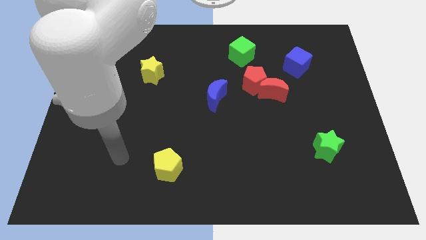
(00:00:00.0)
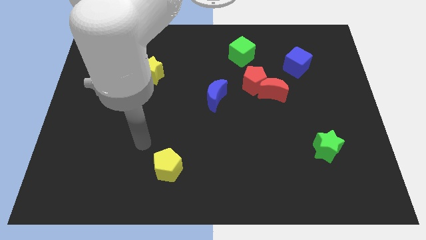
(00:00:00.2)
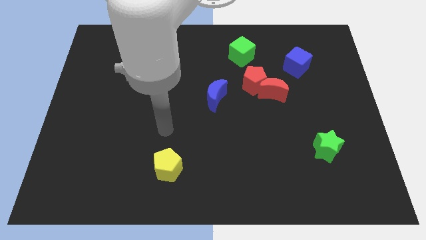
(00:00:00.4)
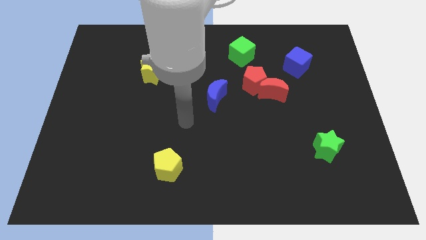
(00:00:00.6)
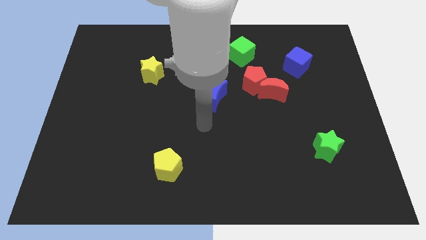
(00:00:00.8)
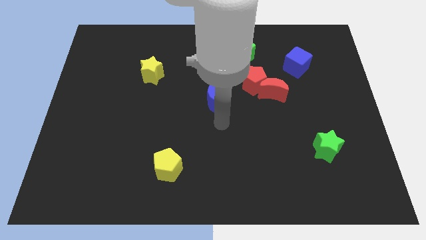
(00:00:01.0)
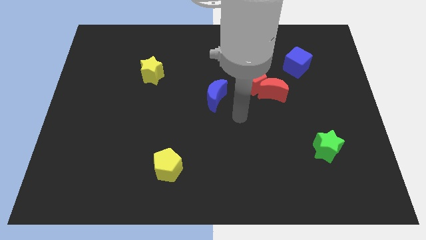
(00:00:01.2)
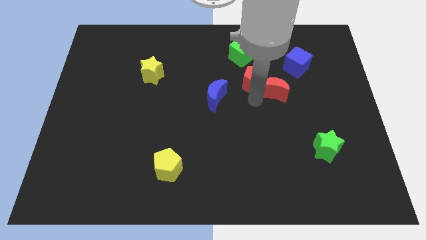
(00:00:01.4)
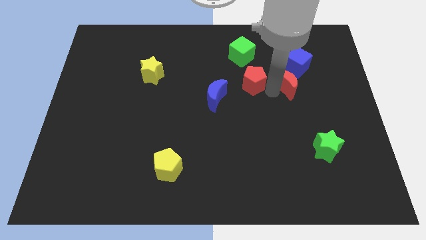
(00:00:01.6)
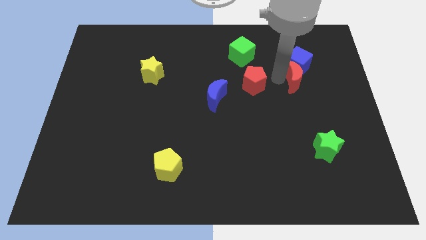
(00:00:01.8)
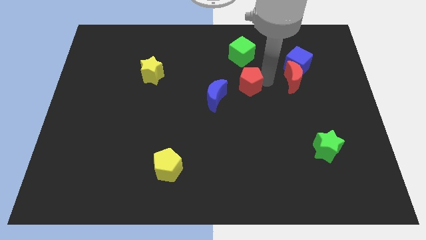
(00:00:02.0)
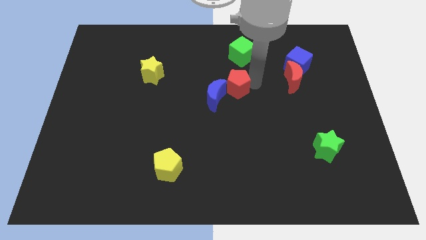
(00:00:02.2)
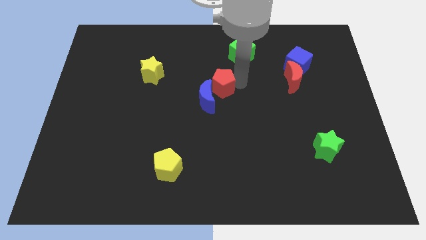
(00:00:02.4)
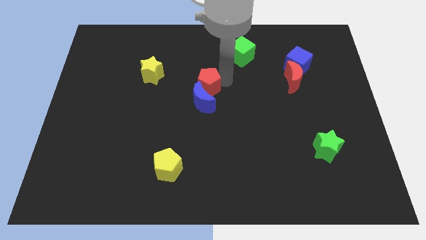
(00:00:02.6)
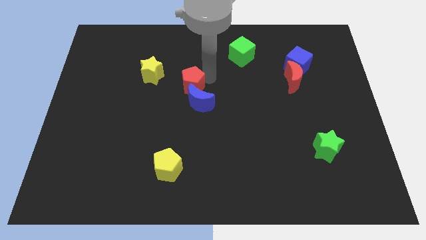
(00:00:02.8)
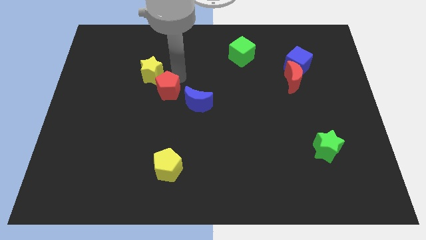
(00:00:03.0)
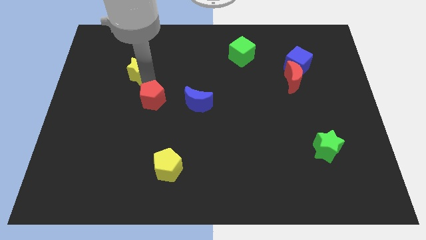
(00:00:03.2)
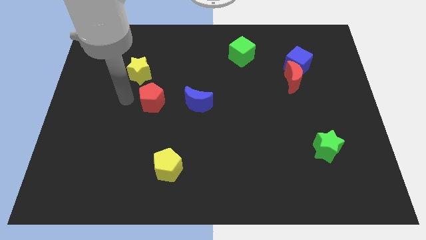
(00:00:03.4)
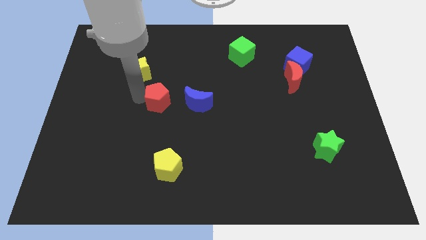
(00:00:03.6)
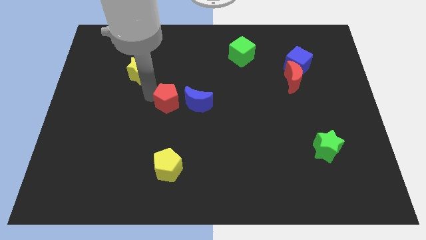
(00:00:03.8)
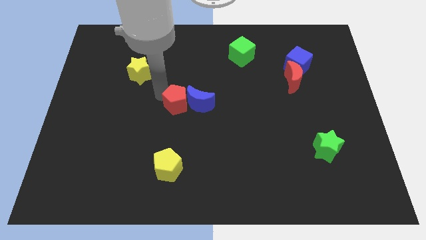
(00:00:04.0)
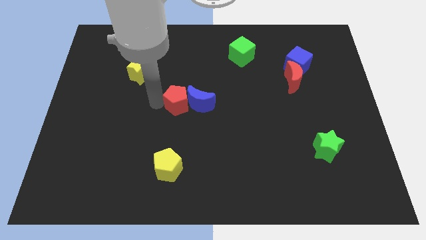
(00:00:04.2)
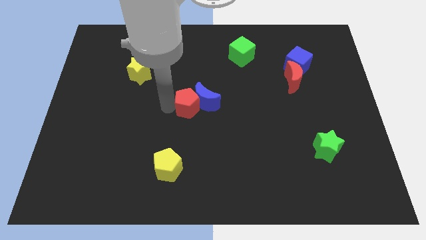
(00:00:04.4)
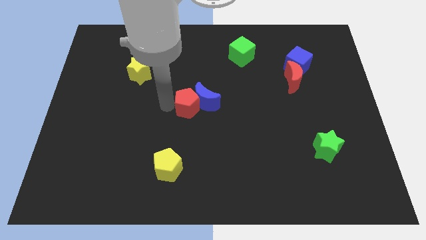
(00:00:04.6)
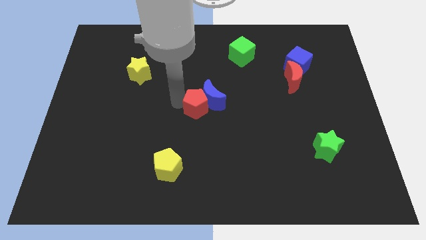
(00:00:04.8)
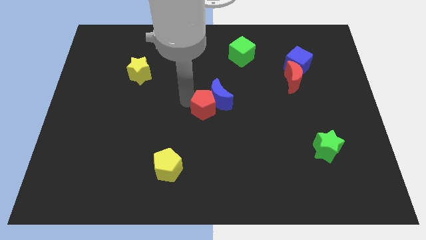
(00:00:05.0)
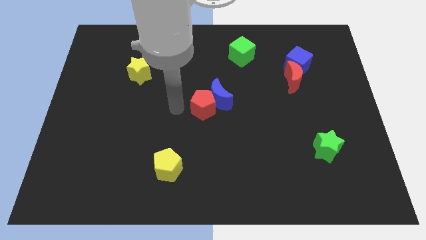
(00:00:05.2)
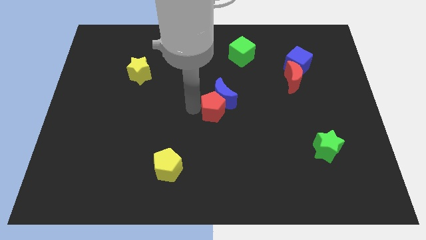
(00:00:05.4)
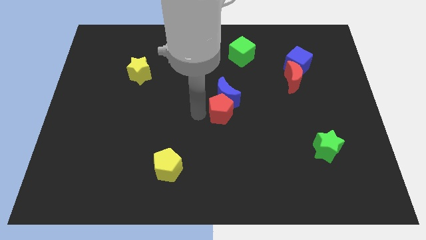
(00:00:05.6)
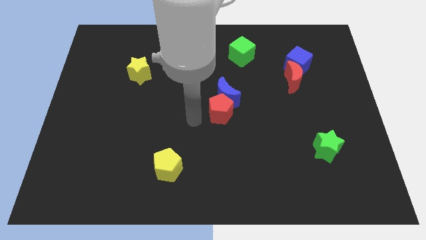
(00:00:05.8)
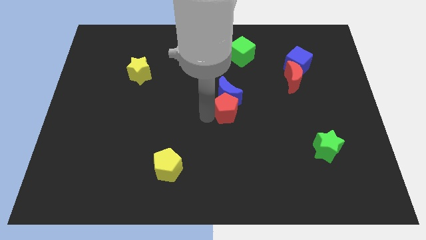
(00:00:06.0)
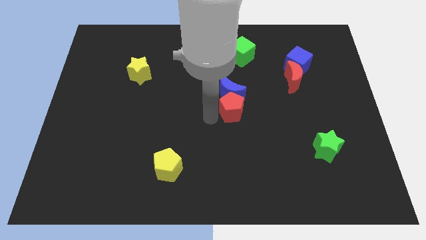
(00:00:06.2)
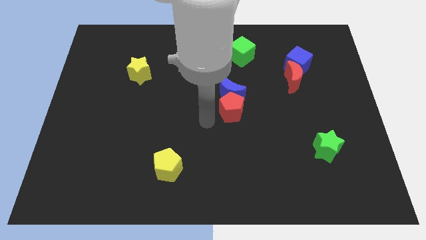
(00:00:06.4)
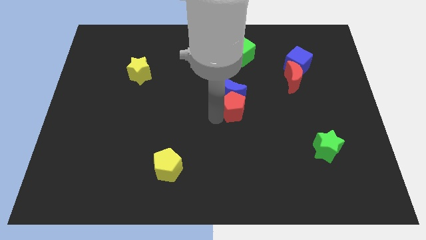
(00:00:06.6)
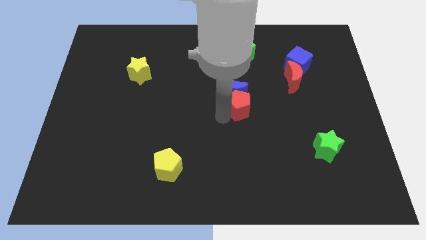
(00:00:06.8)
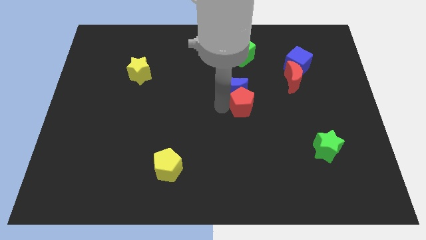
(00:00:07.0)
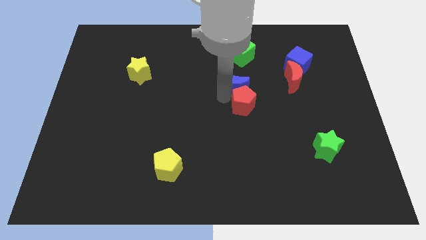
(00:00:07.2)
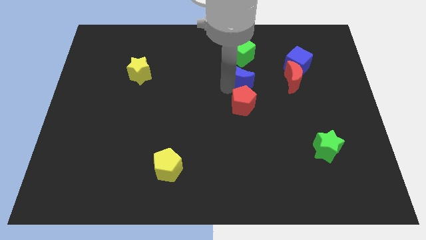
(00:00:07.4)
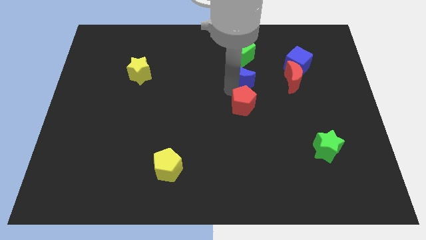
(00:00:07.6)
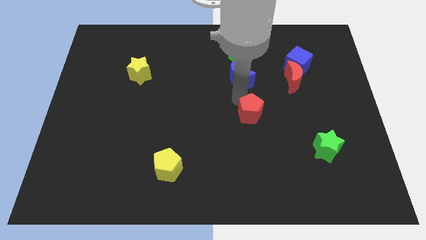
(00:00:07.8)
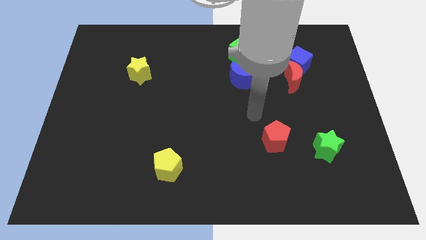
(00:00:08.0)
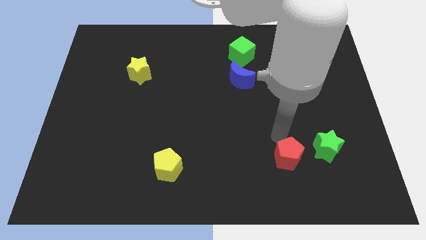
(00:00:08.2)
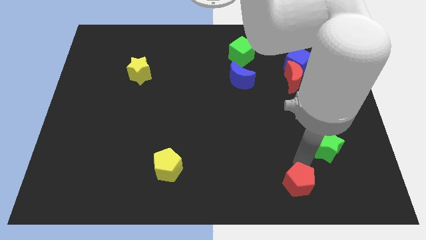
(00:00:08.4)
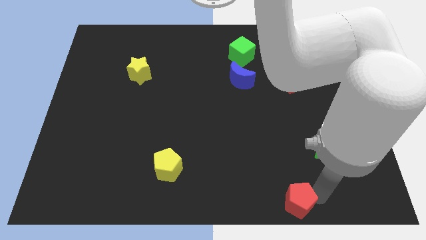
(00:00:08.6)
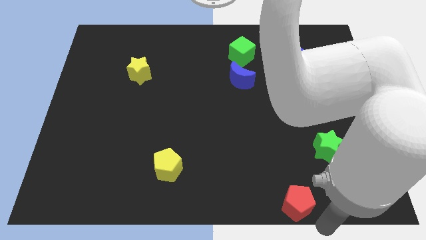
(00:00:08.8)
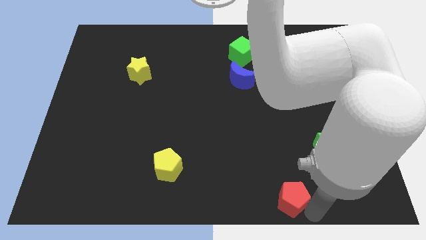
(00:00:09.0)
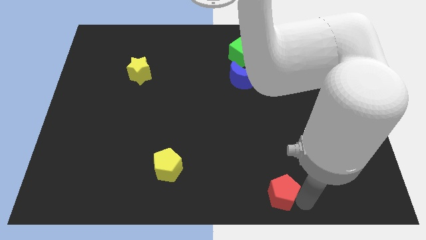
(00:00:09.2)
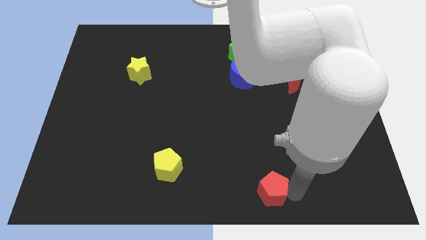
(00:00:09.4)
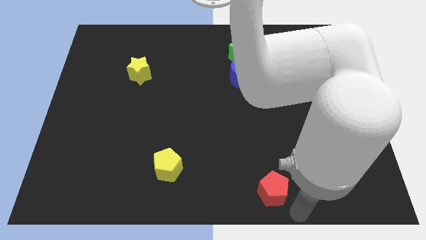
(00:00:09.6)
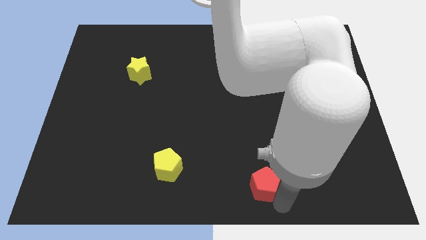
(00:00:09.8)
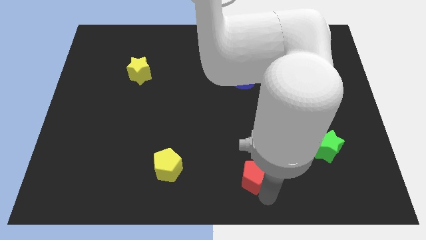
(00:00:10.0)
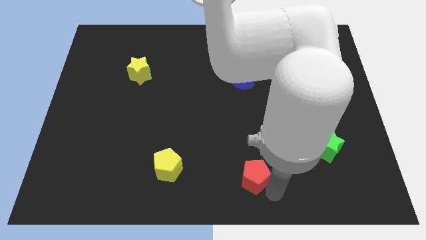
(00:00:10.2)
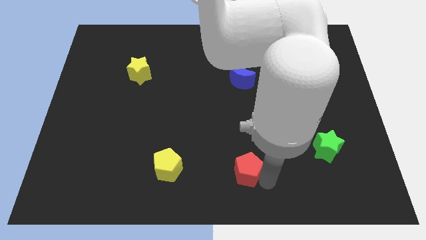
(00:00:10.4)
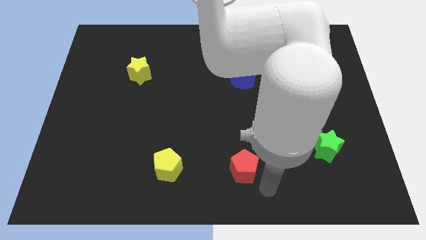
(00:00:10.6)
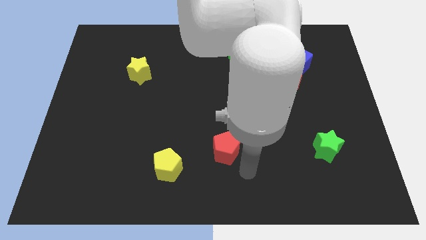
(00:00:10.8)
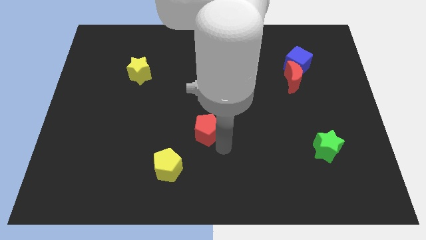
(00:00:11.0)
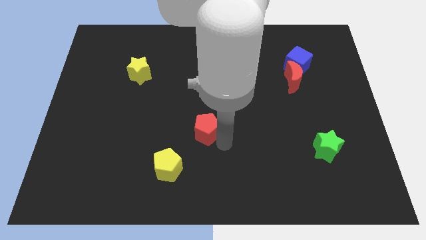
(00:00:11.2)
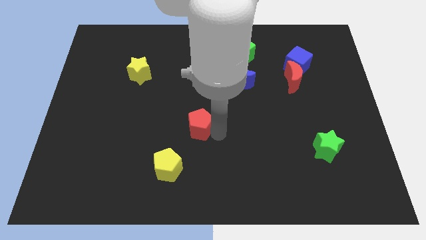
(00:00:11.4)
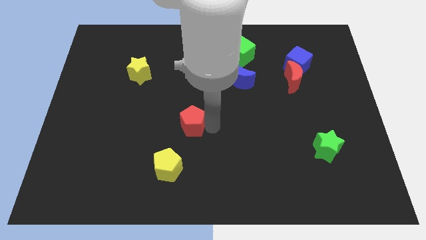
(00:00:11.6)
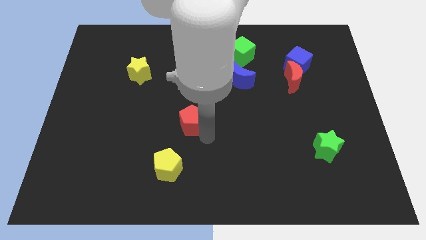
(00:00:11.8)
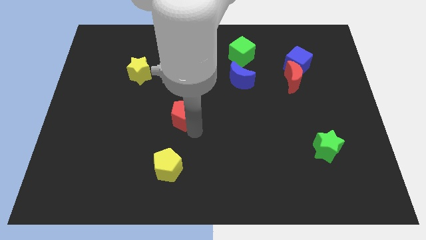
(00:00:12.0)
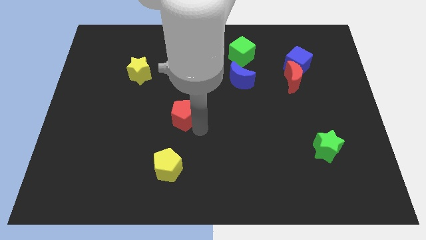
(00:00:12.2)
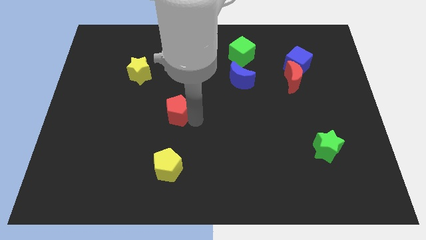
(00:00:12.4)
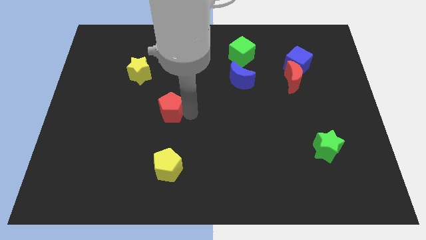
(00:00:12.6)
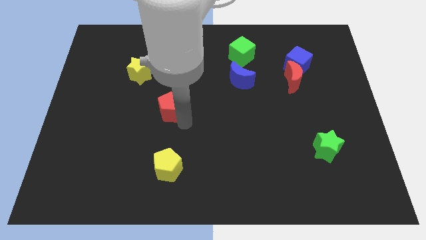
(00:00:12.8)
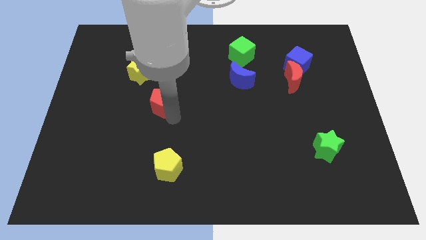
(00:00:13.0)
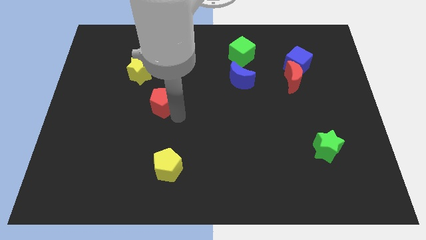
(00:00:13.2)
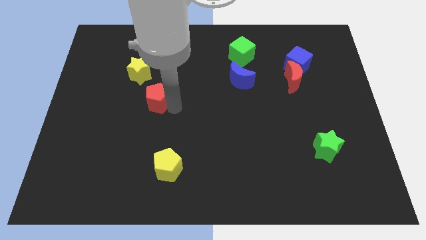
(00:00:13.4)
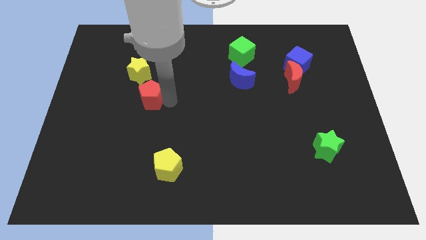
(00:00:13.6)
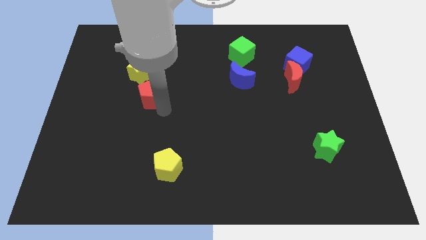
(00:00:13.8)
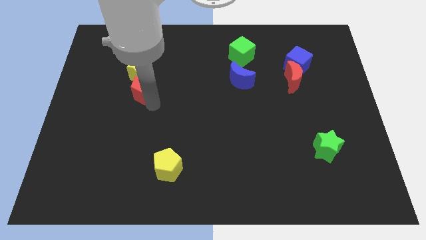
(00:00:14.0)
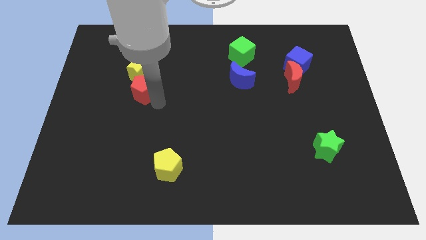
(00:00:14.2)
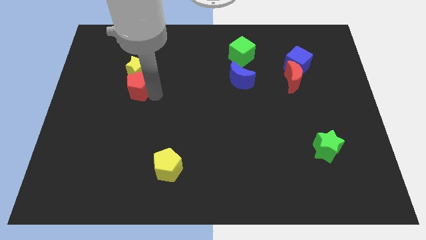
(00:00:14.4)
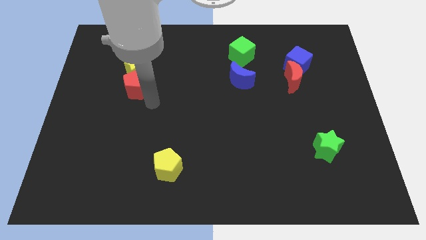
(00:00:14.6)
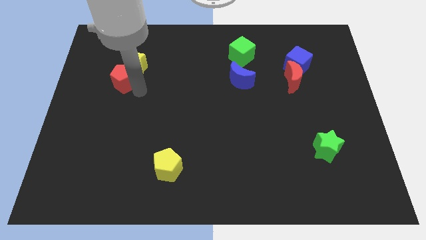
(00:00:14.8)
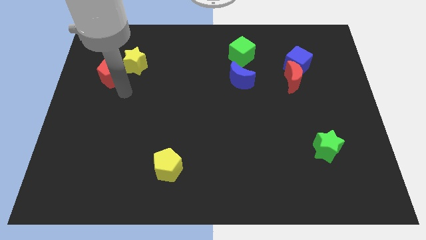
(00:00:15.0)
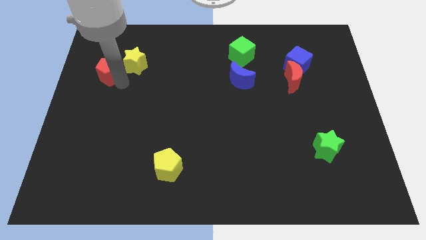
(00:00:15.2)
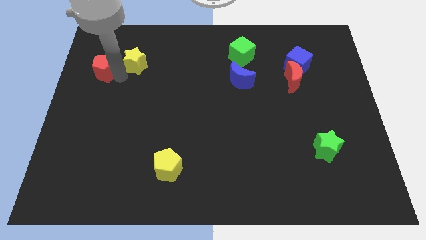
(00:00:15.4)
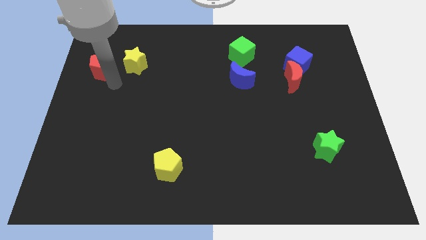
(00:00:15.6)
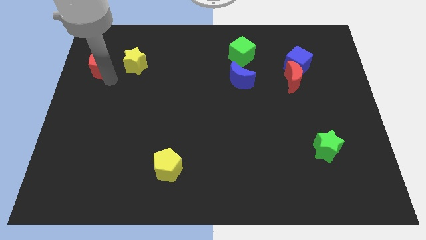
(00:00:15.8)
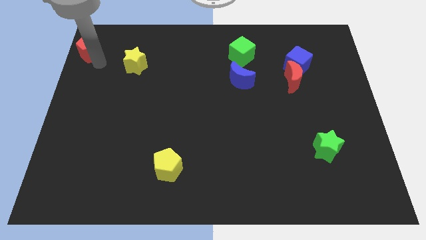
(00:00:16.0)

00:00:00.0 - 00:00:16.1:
move the red pentagon to the top left
